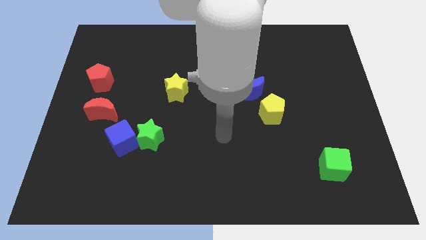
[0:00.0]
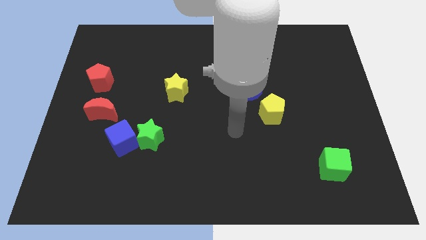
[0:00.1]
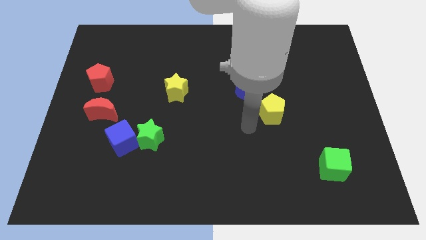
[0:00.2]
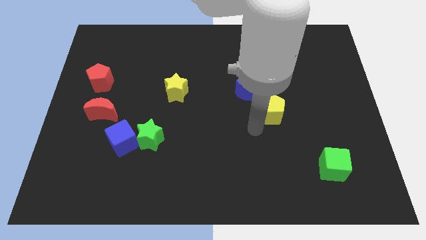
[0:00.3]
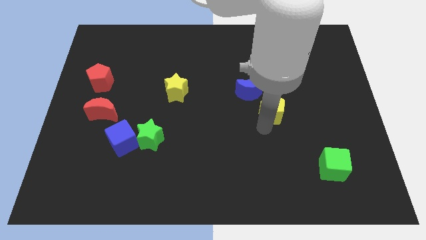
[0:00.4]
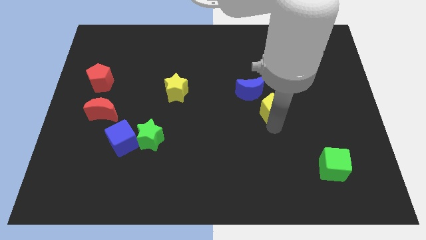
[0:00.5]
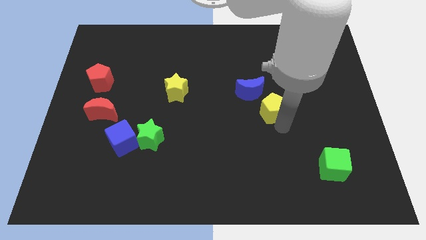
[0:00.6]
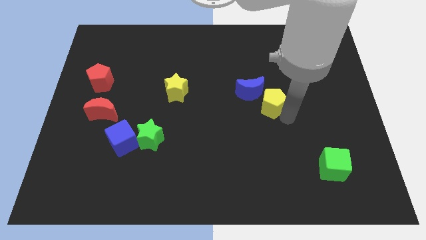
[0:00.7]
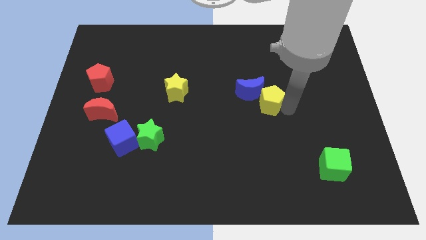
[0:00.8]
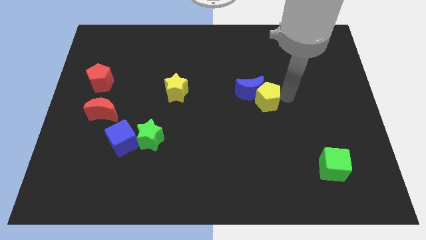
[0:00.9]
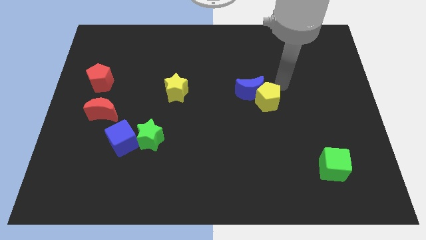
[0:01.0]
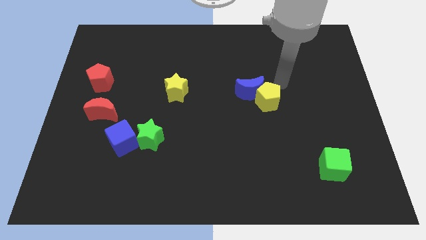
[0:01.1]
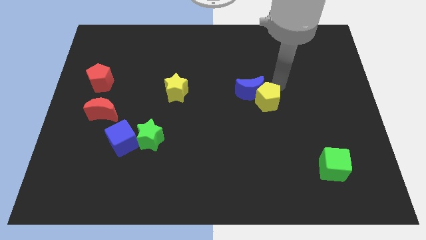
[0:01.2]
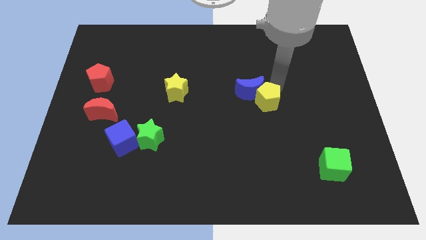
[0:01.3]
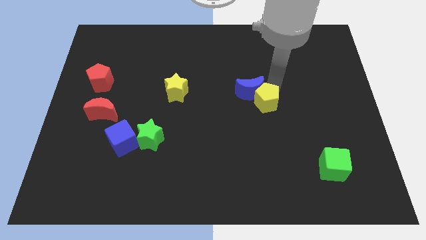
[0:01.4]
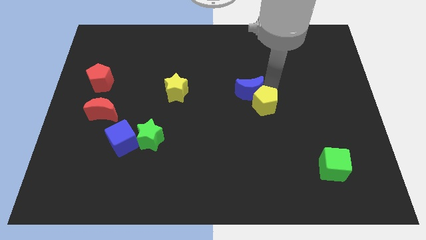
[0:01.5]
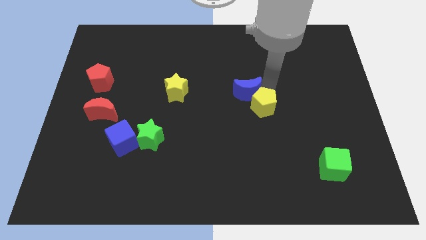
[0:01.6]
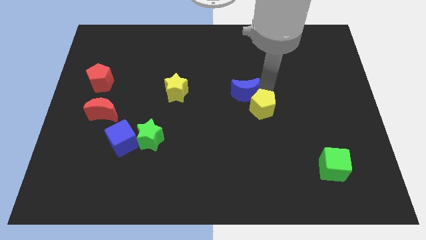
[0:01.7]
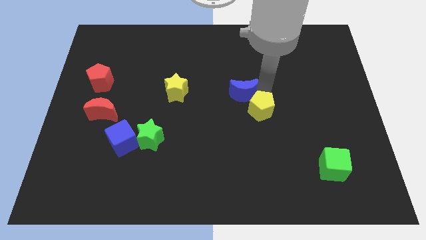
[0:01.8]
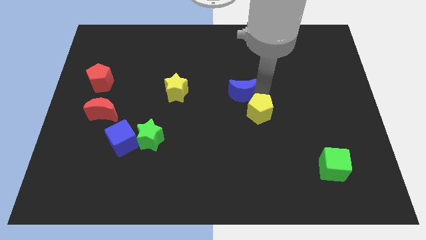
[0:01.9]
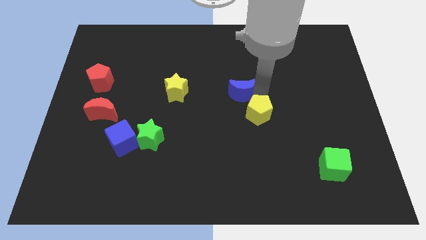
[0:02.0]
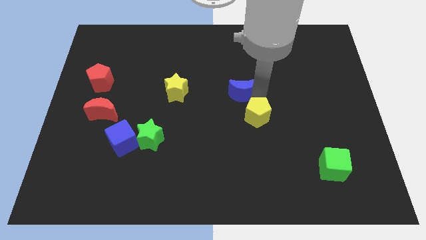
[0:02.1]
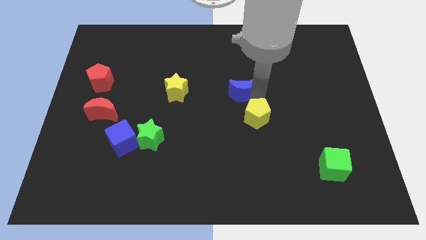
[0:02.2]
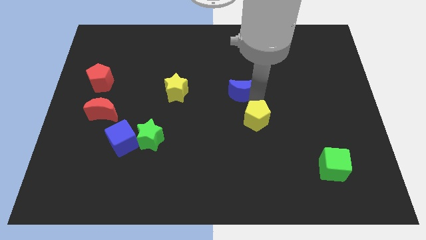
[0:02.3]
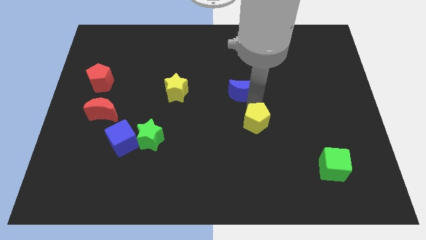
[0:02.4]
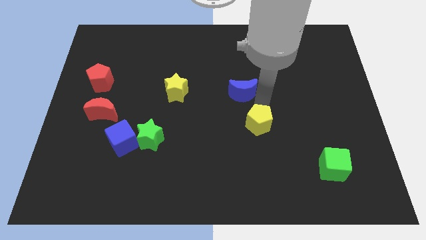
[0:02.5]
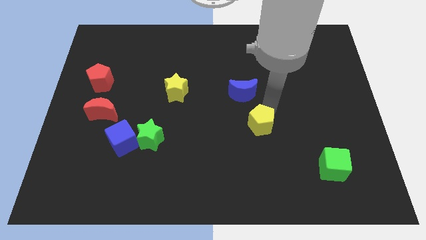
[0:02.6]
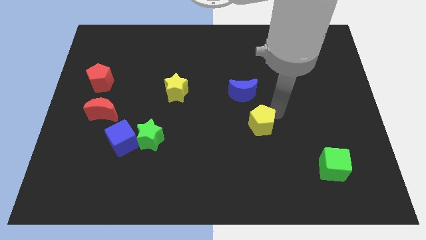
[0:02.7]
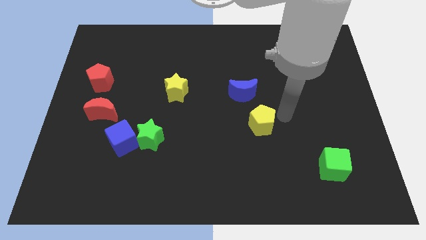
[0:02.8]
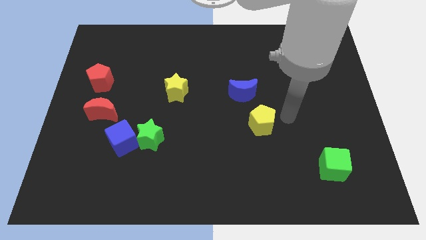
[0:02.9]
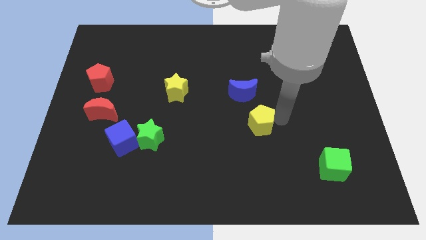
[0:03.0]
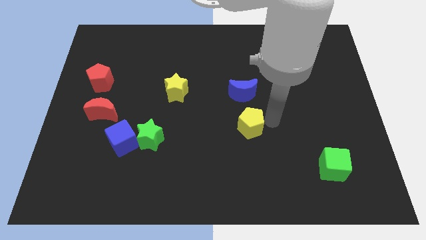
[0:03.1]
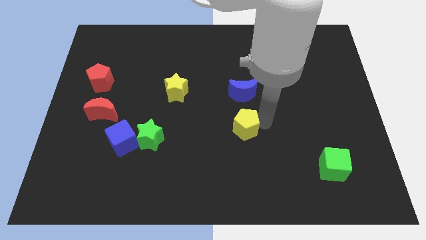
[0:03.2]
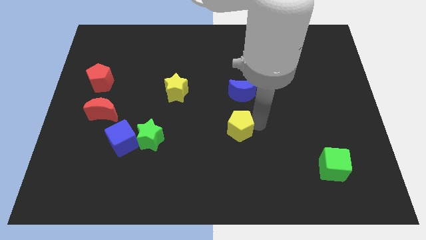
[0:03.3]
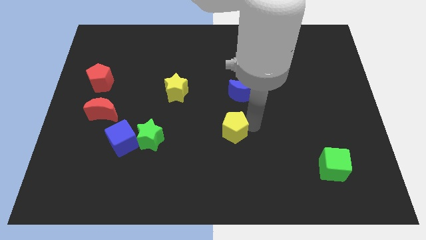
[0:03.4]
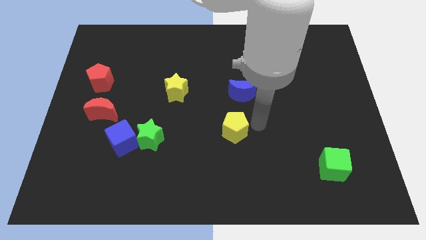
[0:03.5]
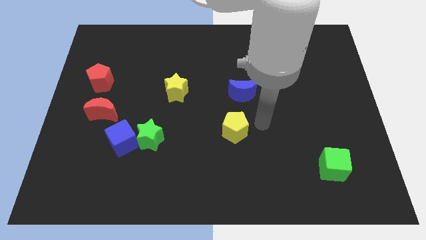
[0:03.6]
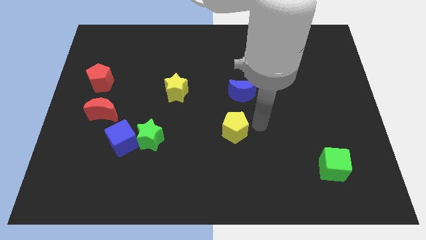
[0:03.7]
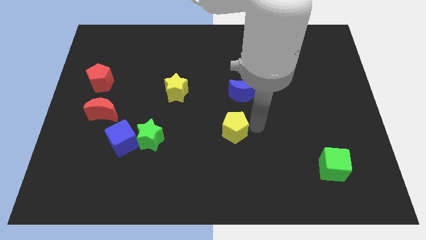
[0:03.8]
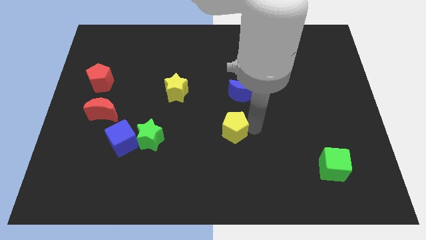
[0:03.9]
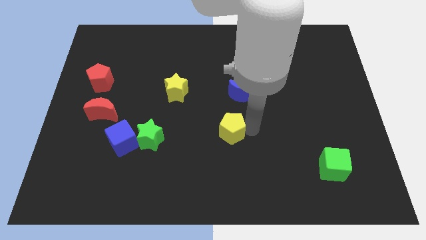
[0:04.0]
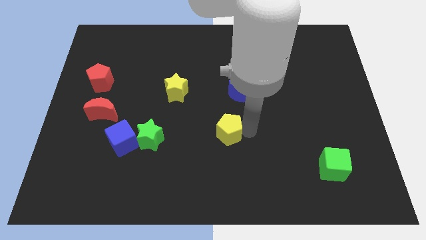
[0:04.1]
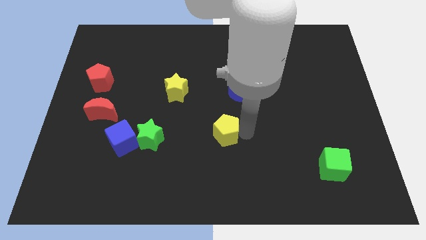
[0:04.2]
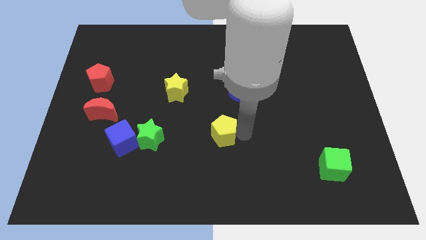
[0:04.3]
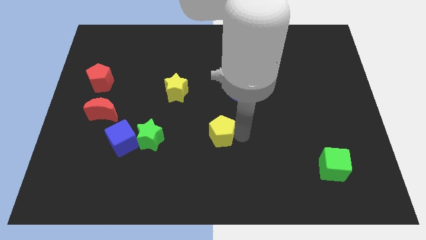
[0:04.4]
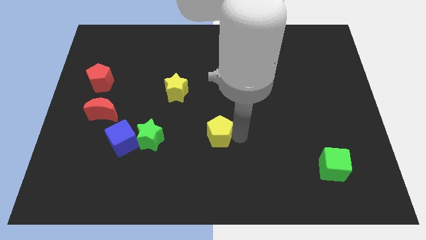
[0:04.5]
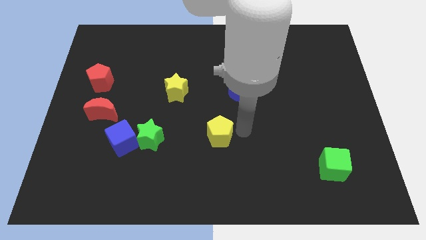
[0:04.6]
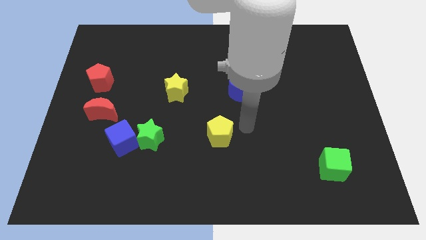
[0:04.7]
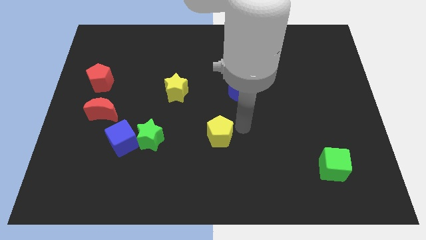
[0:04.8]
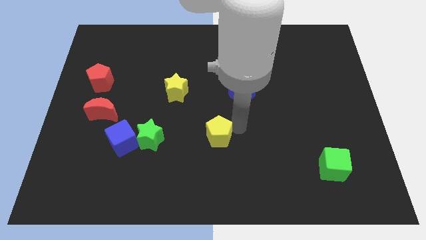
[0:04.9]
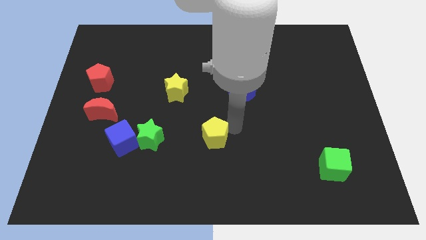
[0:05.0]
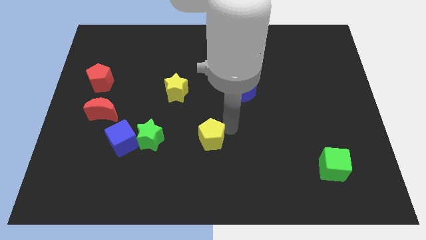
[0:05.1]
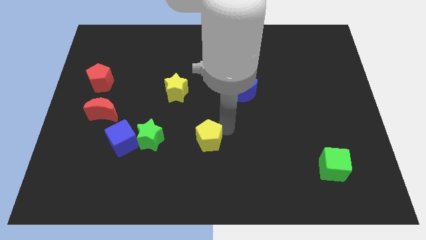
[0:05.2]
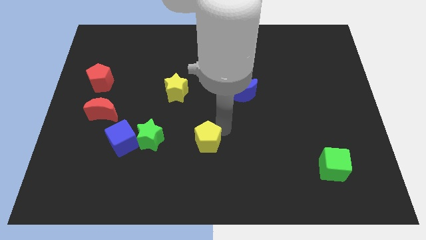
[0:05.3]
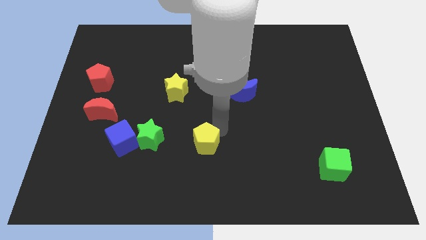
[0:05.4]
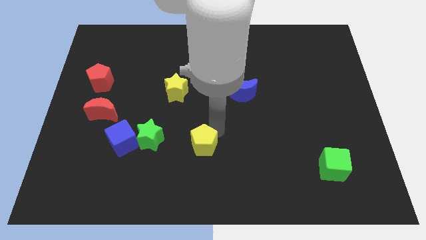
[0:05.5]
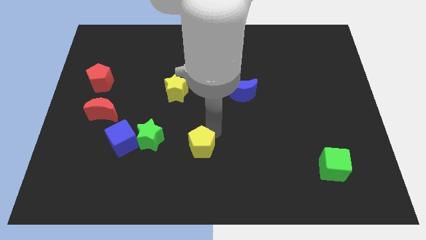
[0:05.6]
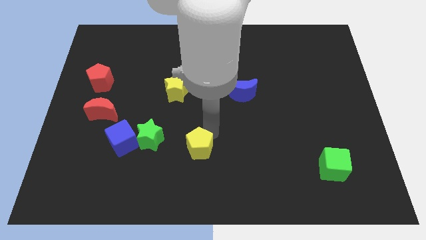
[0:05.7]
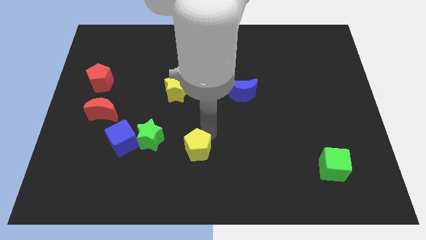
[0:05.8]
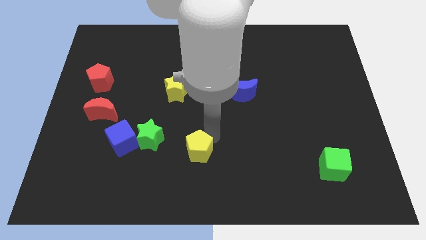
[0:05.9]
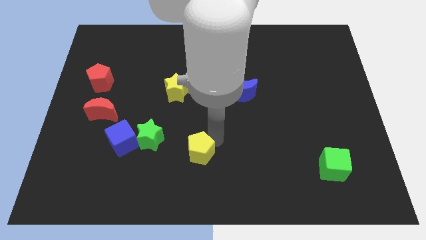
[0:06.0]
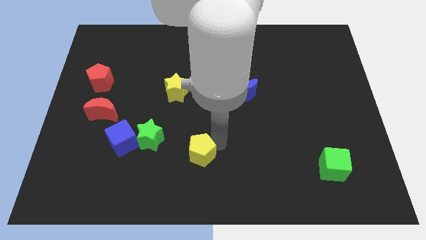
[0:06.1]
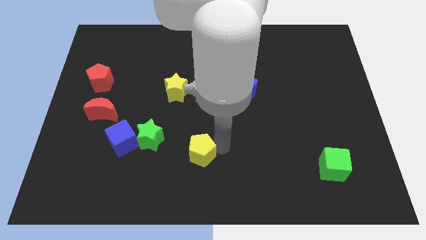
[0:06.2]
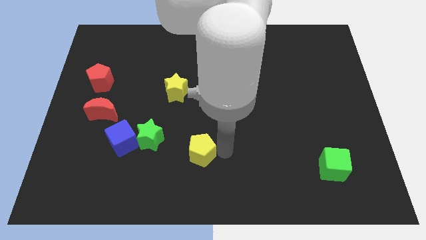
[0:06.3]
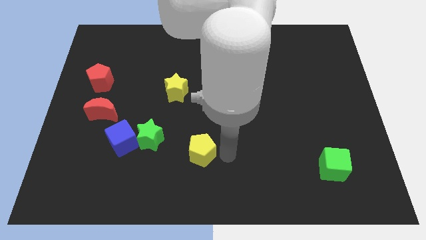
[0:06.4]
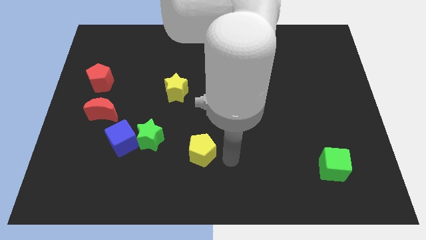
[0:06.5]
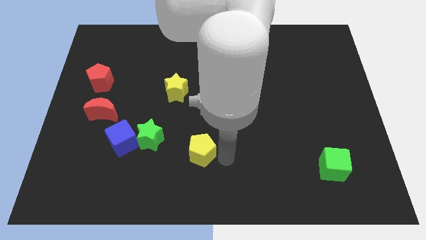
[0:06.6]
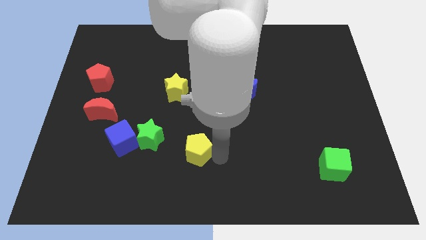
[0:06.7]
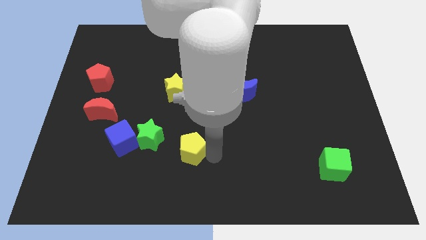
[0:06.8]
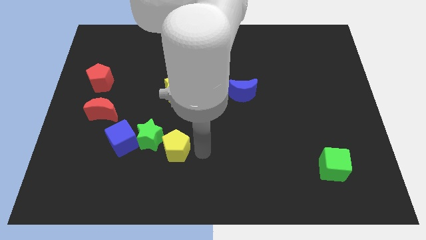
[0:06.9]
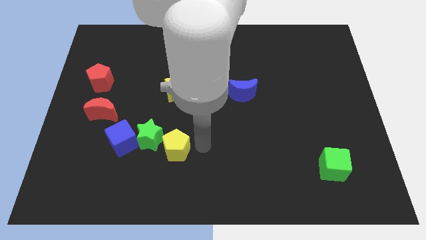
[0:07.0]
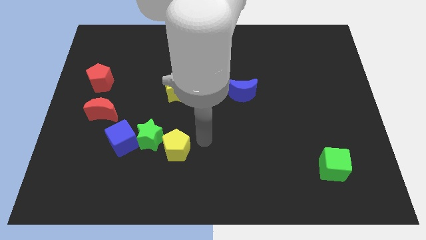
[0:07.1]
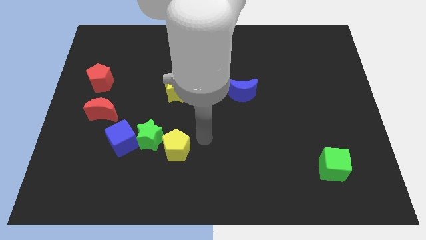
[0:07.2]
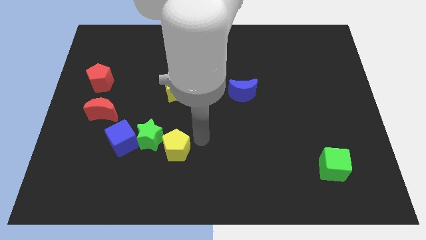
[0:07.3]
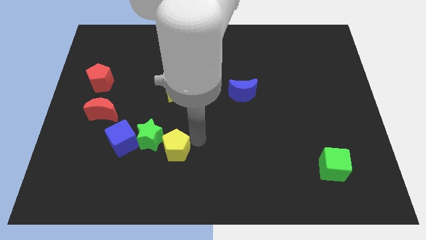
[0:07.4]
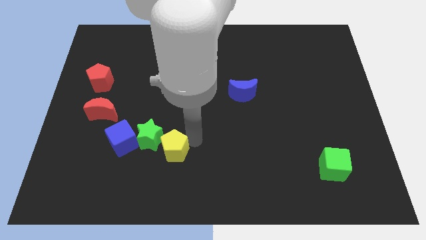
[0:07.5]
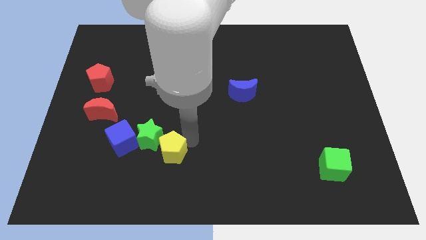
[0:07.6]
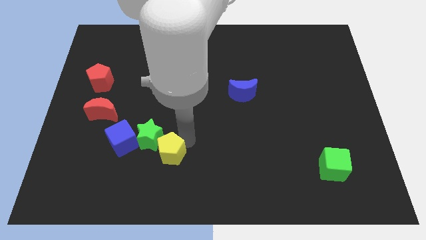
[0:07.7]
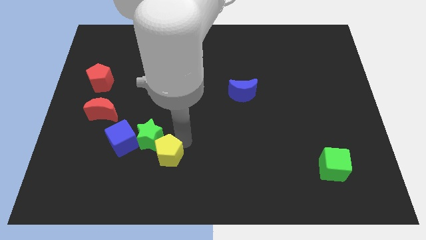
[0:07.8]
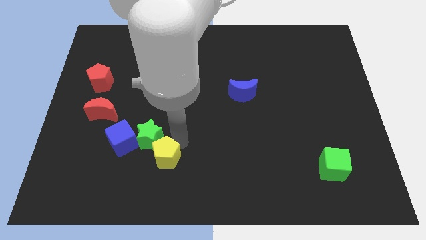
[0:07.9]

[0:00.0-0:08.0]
put the yellow pentagon to the bottom right of the blue cube
